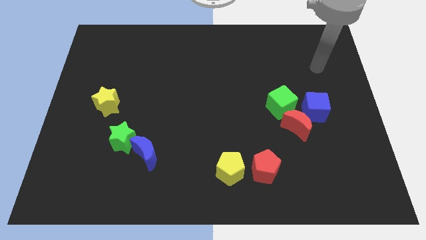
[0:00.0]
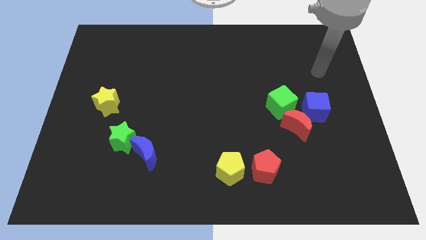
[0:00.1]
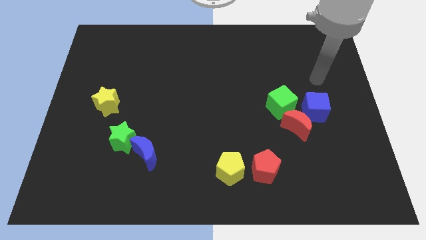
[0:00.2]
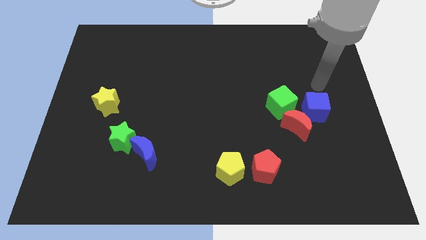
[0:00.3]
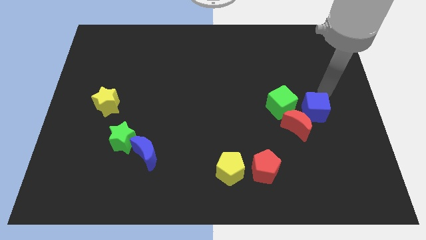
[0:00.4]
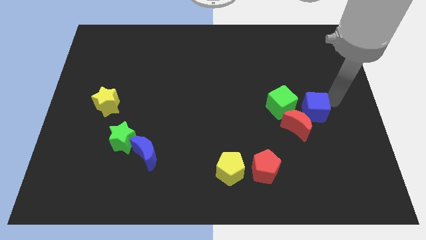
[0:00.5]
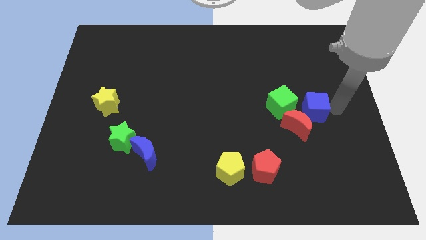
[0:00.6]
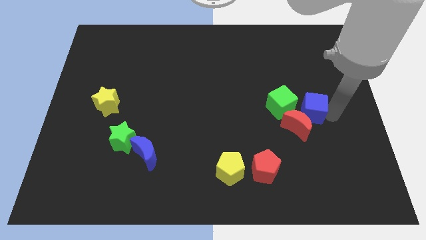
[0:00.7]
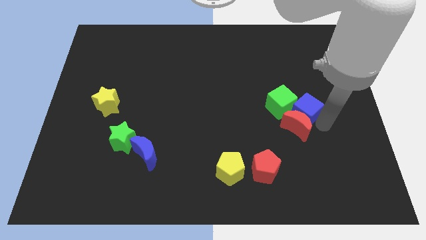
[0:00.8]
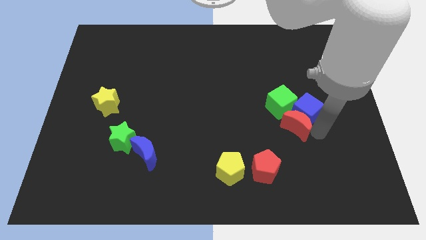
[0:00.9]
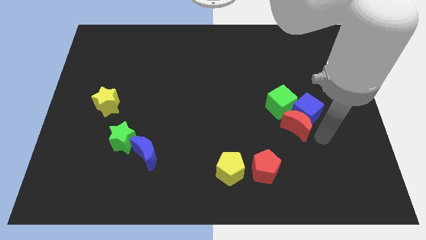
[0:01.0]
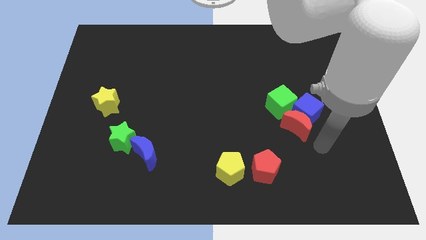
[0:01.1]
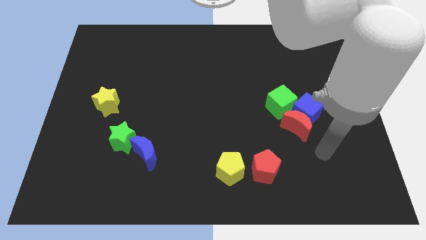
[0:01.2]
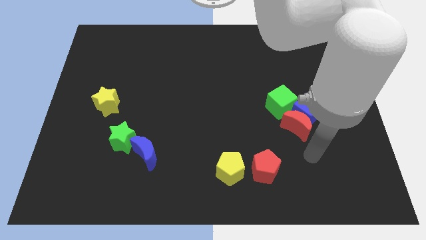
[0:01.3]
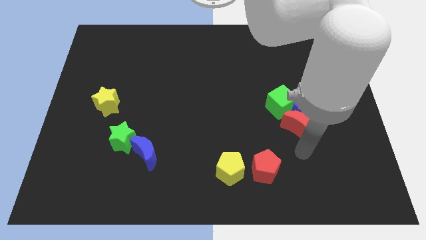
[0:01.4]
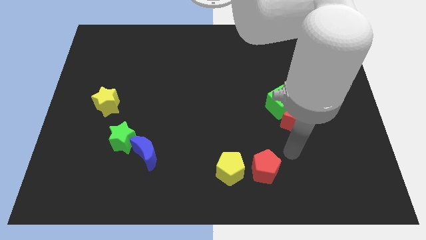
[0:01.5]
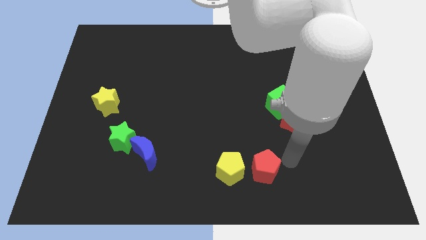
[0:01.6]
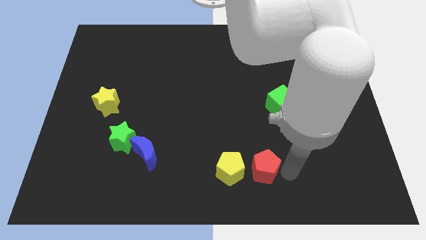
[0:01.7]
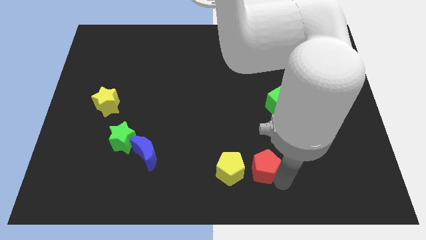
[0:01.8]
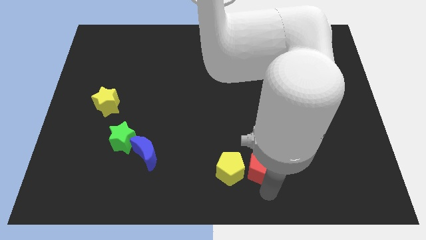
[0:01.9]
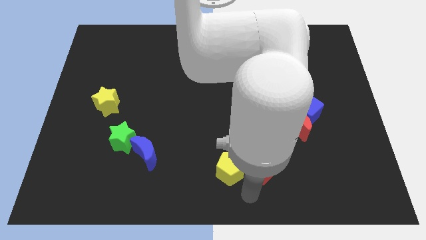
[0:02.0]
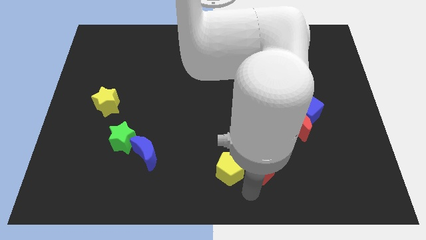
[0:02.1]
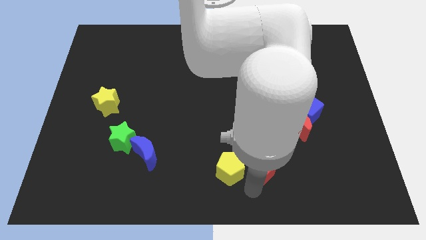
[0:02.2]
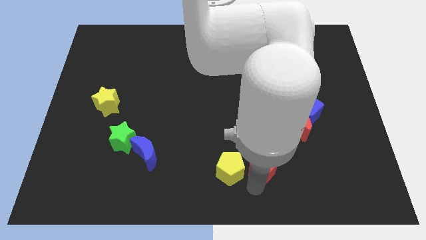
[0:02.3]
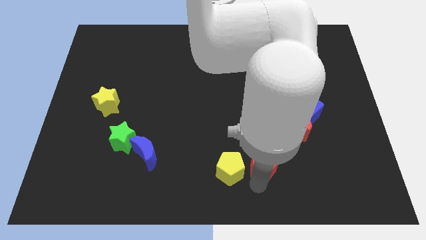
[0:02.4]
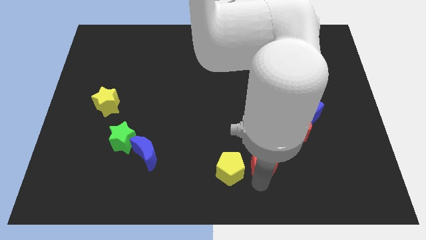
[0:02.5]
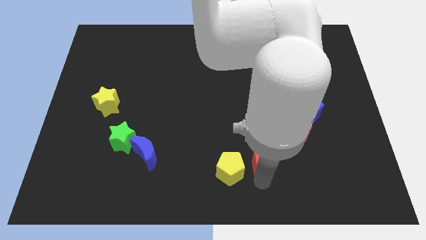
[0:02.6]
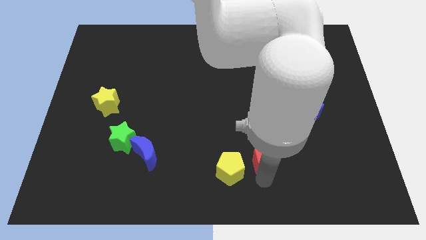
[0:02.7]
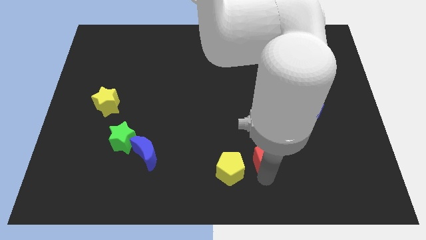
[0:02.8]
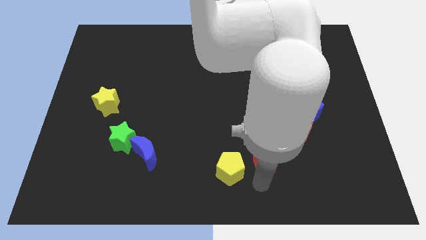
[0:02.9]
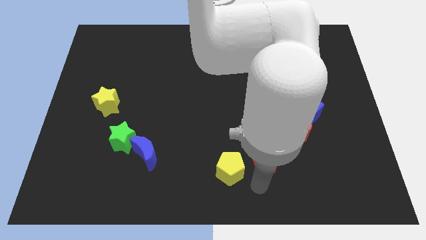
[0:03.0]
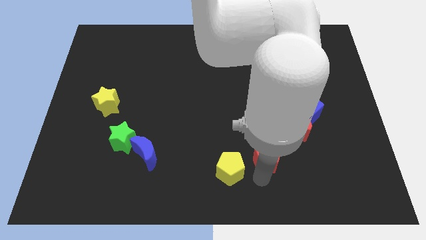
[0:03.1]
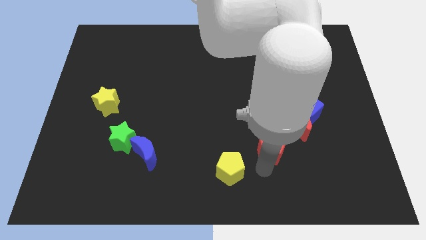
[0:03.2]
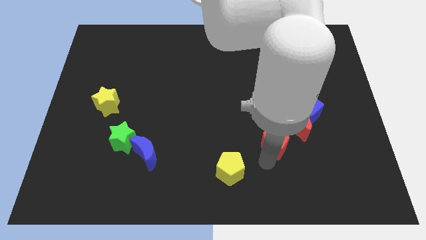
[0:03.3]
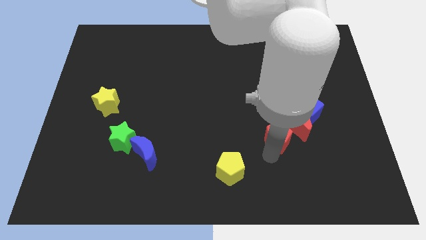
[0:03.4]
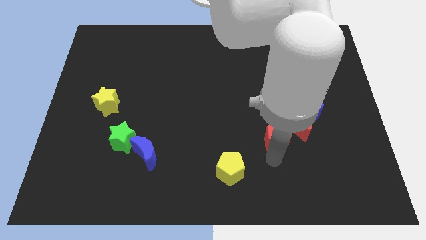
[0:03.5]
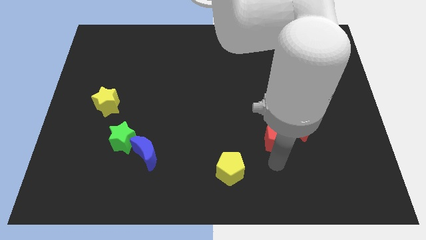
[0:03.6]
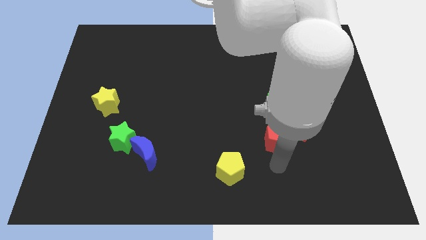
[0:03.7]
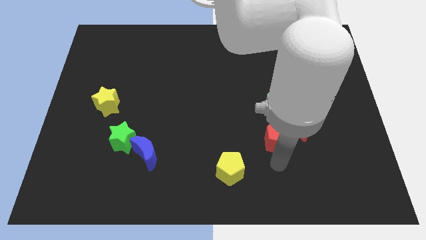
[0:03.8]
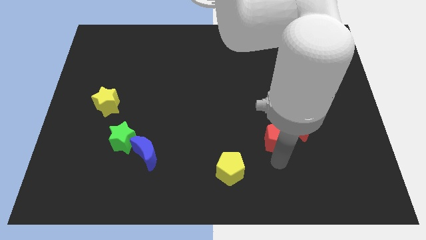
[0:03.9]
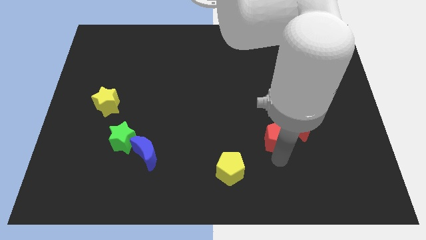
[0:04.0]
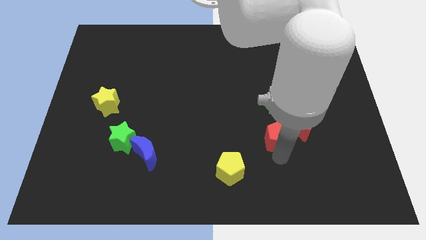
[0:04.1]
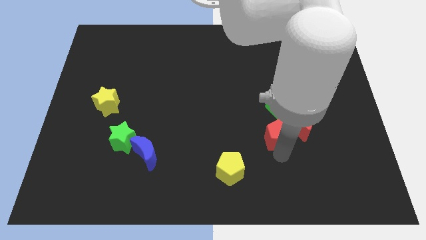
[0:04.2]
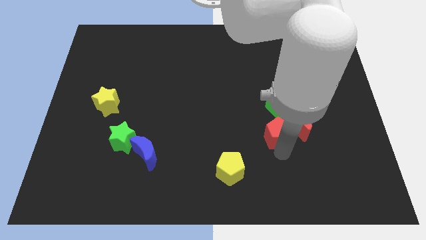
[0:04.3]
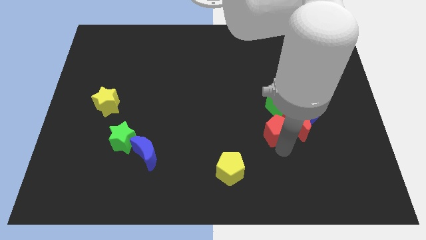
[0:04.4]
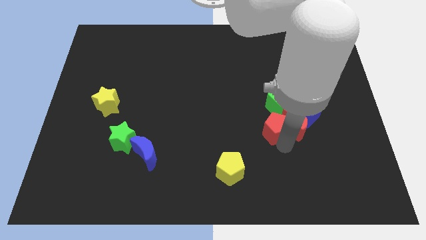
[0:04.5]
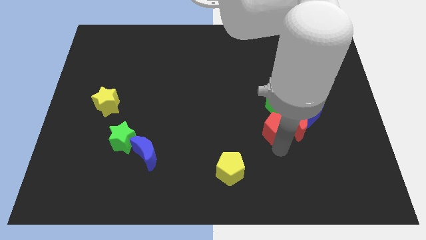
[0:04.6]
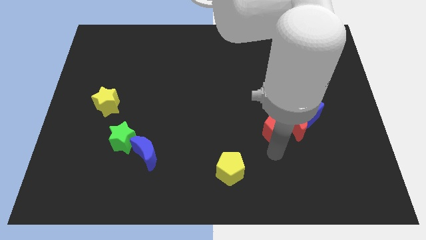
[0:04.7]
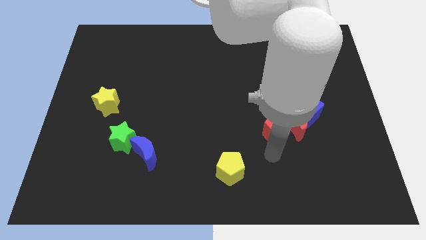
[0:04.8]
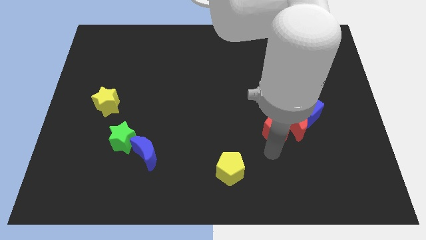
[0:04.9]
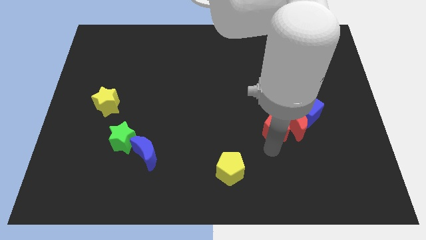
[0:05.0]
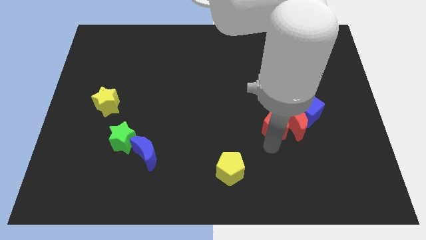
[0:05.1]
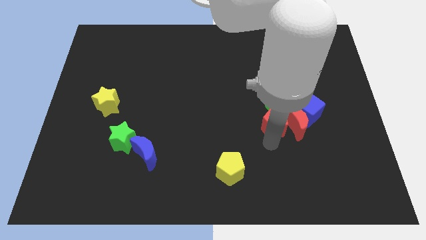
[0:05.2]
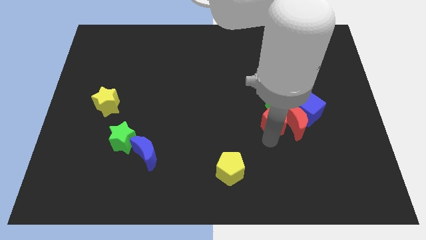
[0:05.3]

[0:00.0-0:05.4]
move the red pentagon next to the green cube

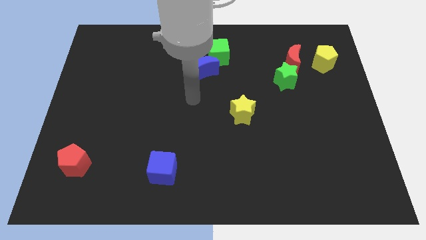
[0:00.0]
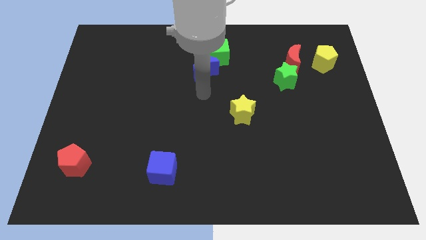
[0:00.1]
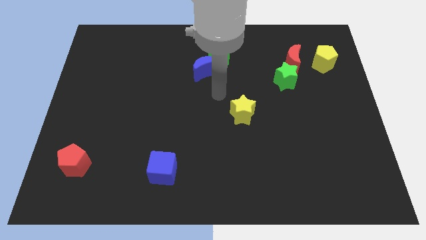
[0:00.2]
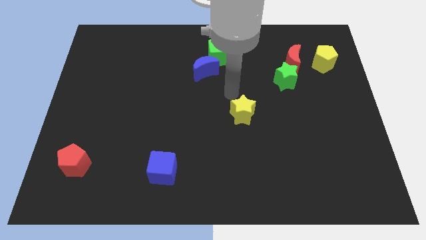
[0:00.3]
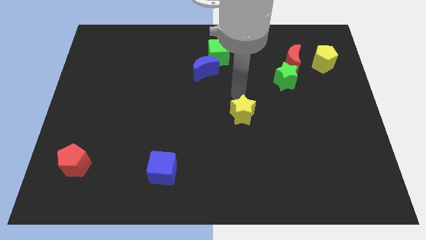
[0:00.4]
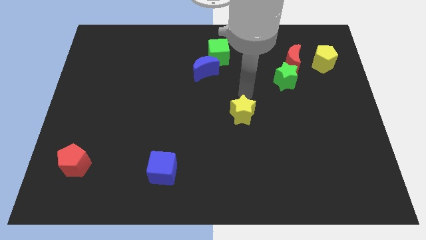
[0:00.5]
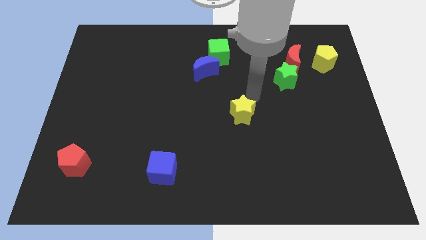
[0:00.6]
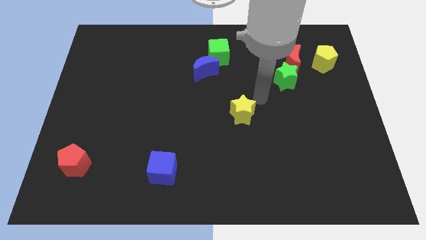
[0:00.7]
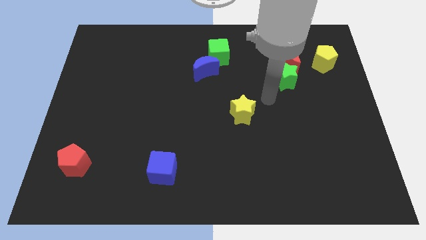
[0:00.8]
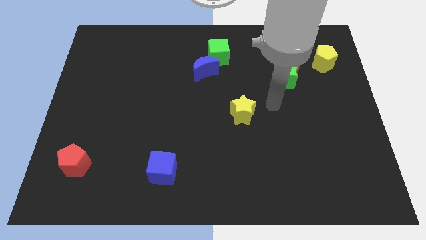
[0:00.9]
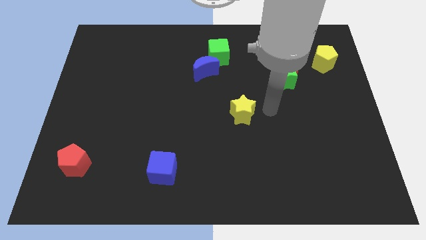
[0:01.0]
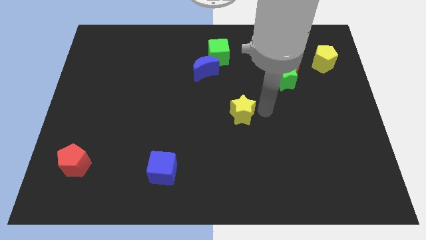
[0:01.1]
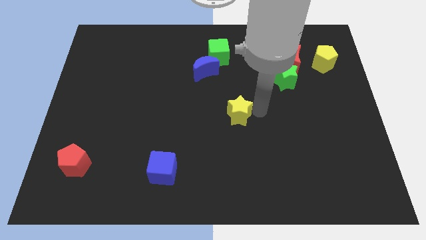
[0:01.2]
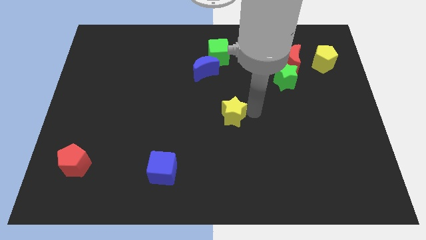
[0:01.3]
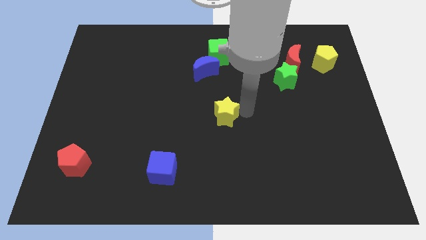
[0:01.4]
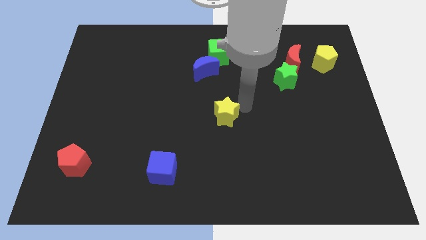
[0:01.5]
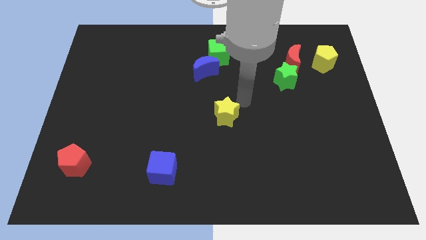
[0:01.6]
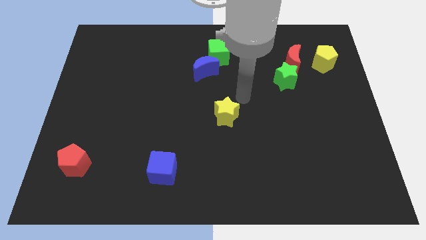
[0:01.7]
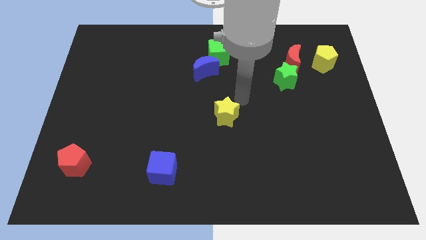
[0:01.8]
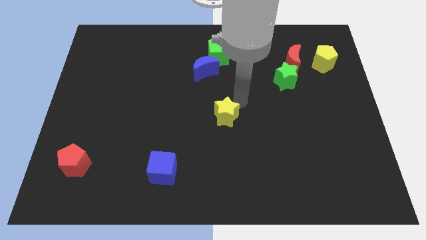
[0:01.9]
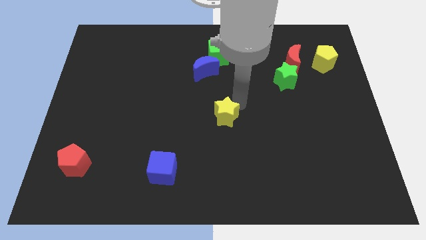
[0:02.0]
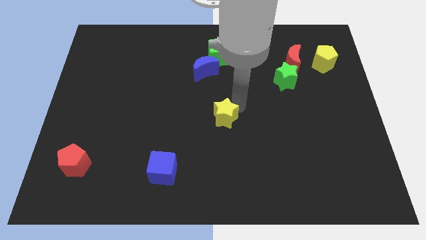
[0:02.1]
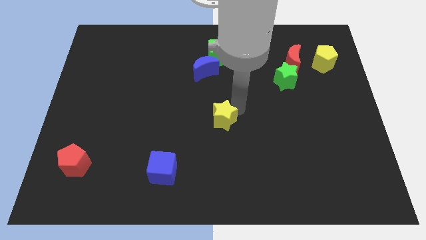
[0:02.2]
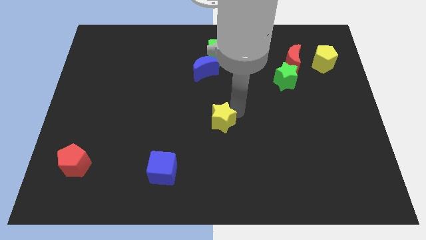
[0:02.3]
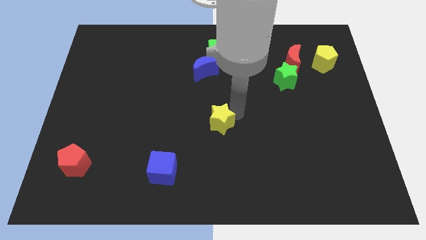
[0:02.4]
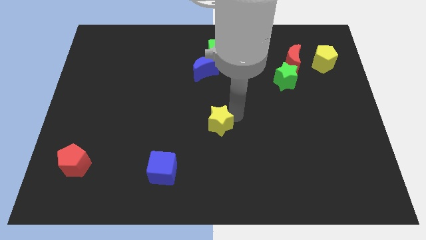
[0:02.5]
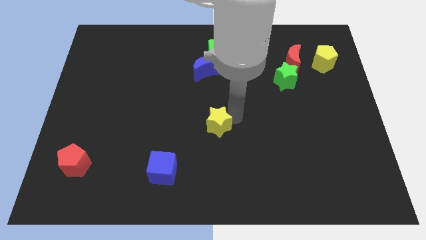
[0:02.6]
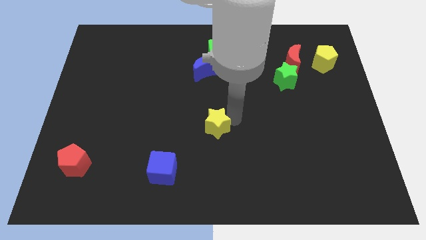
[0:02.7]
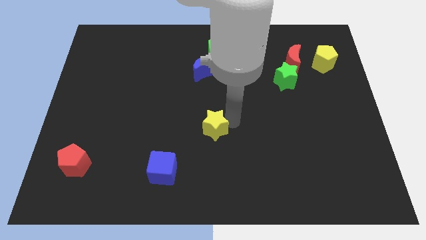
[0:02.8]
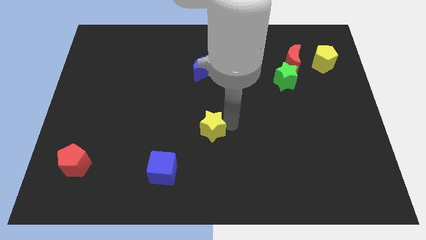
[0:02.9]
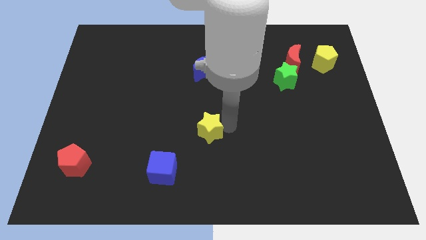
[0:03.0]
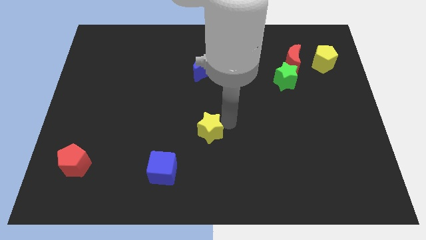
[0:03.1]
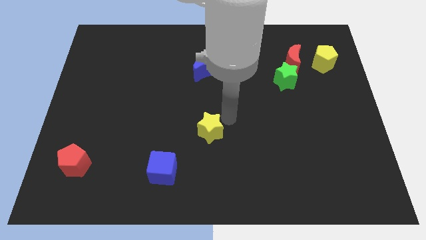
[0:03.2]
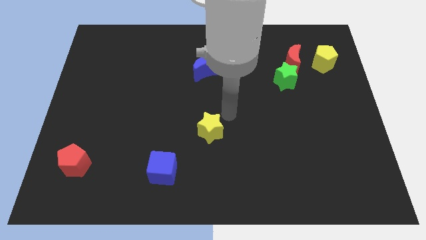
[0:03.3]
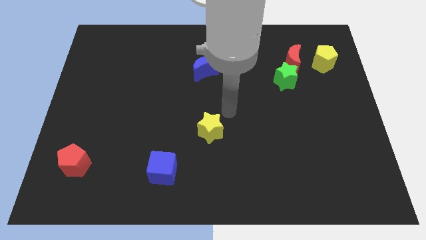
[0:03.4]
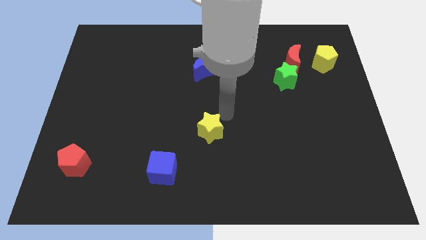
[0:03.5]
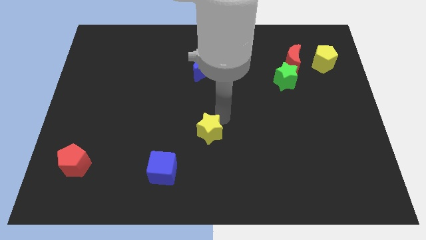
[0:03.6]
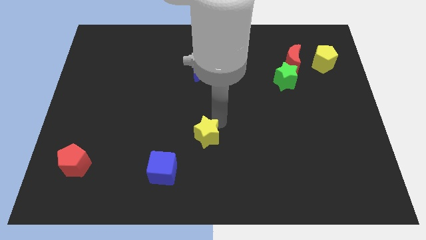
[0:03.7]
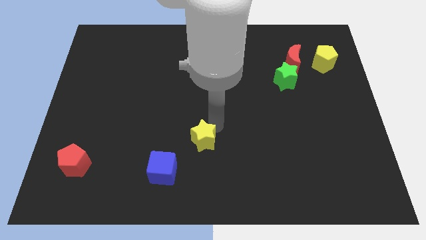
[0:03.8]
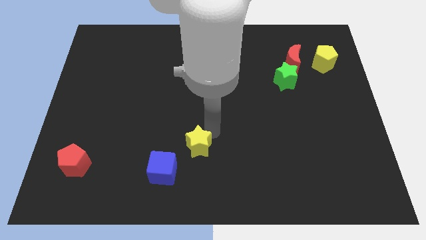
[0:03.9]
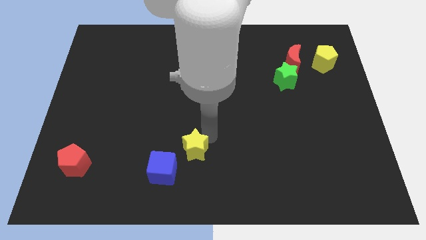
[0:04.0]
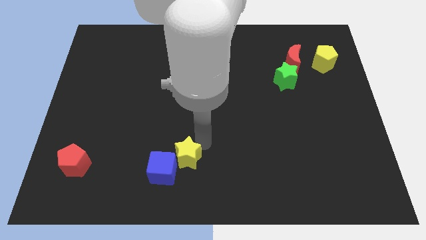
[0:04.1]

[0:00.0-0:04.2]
put the yellow star next to the blue cube
